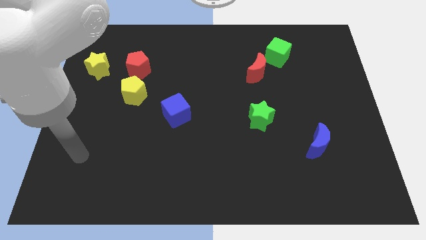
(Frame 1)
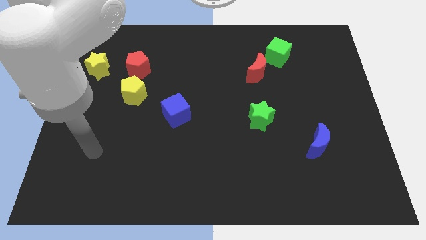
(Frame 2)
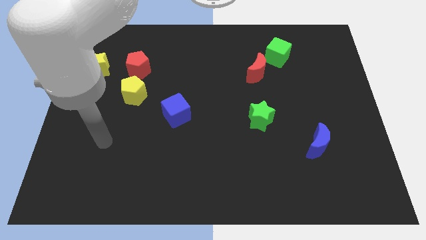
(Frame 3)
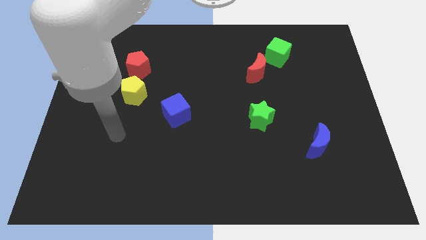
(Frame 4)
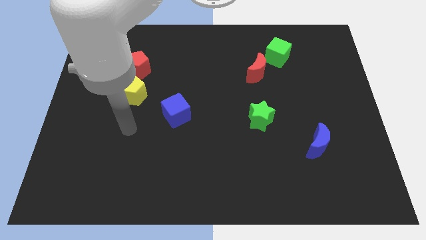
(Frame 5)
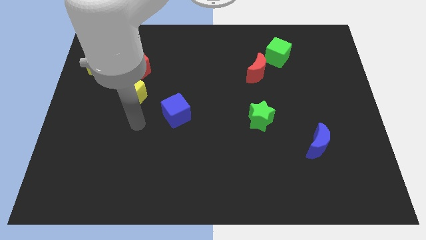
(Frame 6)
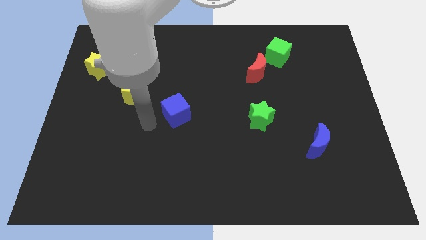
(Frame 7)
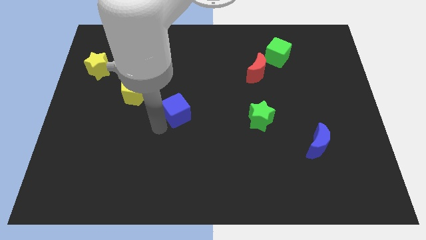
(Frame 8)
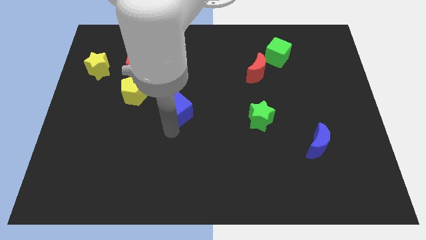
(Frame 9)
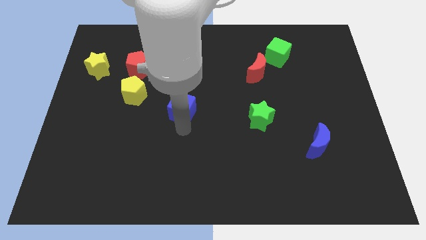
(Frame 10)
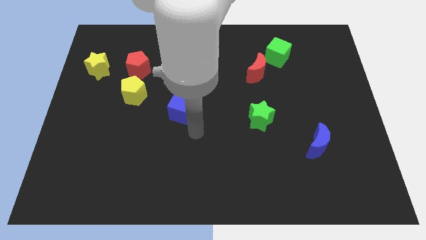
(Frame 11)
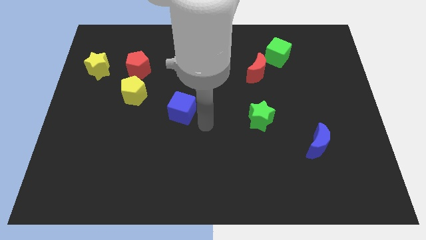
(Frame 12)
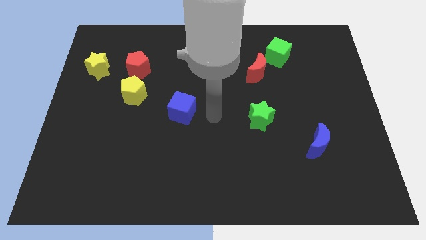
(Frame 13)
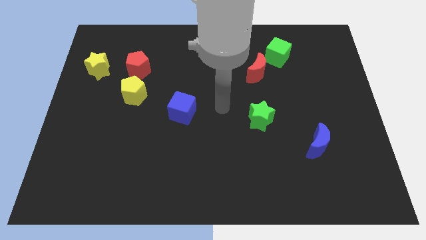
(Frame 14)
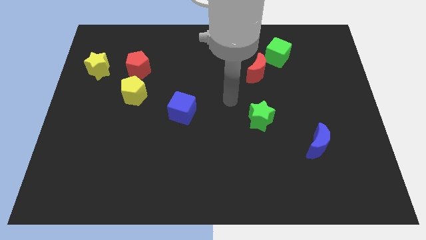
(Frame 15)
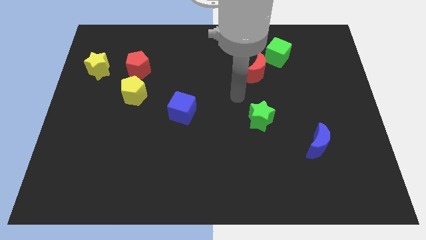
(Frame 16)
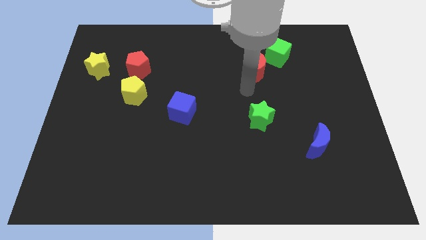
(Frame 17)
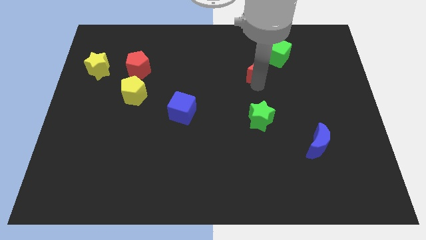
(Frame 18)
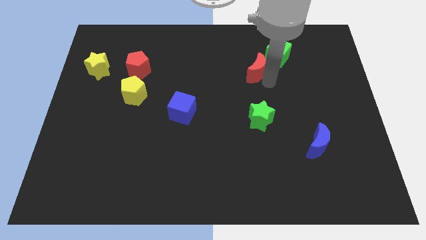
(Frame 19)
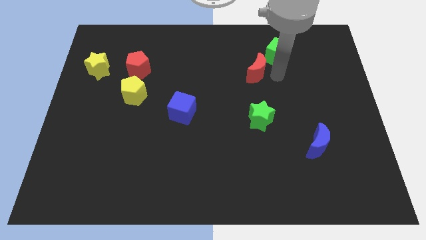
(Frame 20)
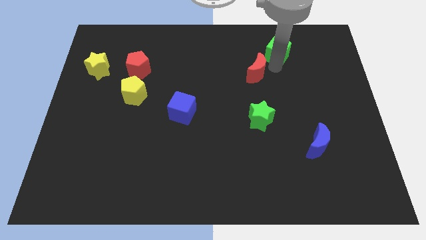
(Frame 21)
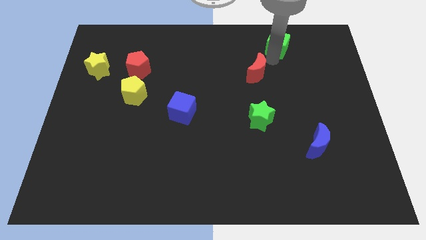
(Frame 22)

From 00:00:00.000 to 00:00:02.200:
pull the red moon apart from the green cube

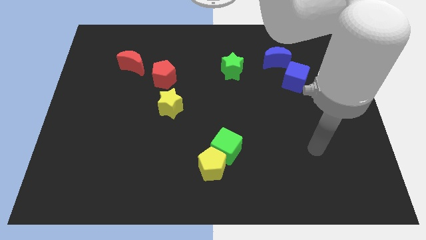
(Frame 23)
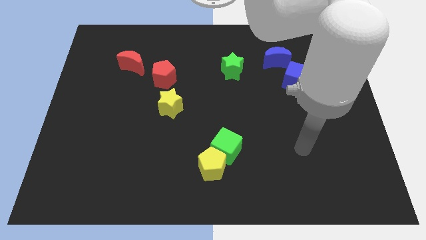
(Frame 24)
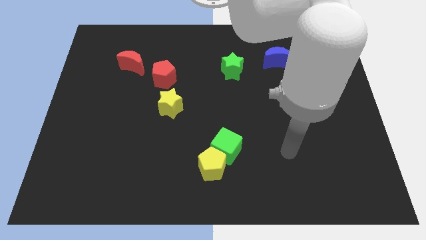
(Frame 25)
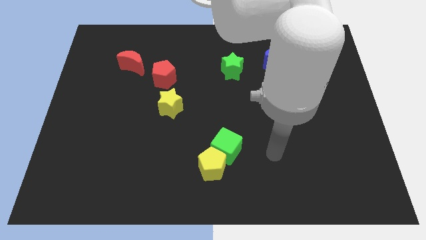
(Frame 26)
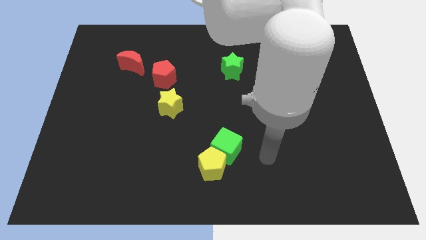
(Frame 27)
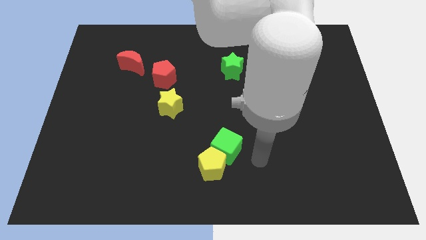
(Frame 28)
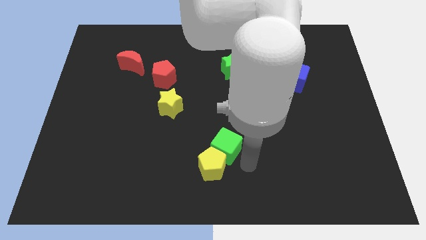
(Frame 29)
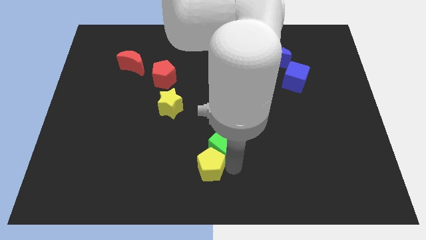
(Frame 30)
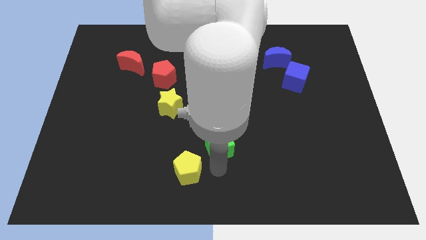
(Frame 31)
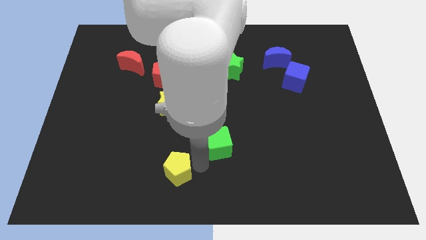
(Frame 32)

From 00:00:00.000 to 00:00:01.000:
separate the green cube from the yellow pentagon

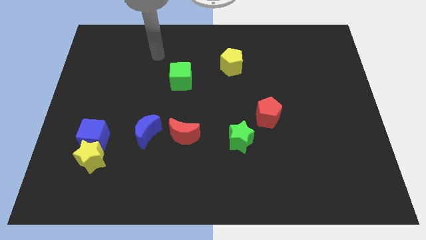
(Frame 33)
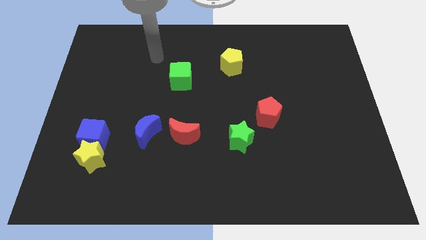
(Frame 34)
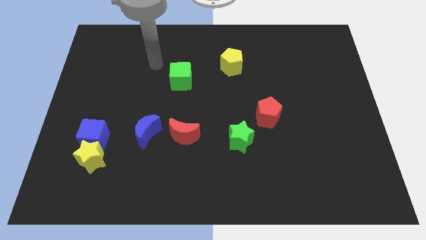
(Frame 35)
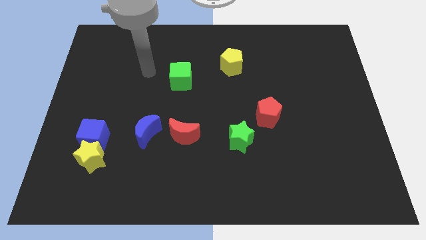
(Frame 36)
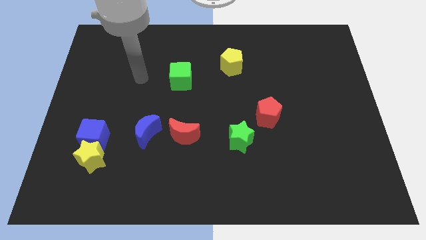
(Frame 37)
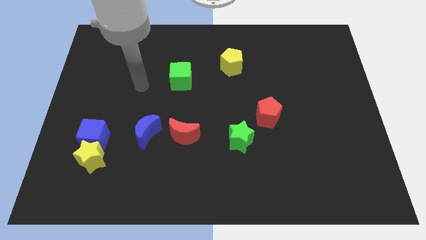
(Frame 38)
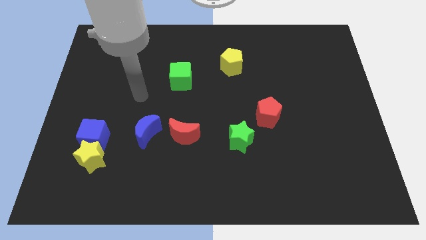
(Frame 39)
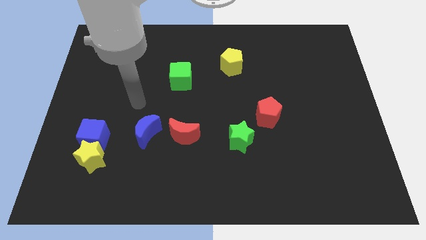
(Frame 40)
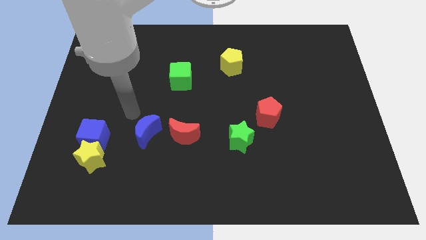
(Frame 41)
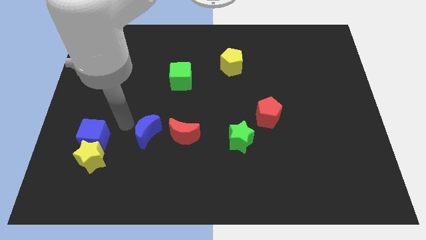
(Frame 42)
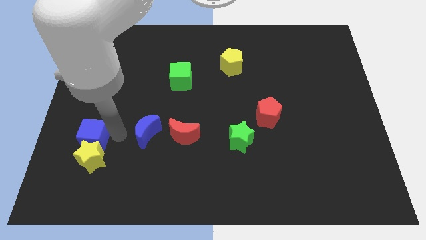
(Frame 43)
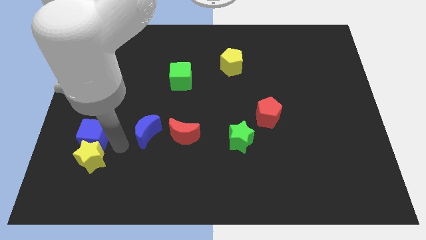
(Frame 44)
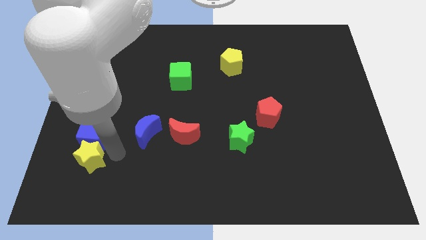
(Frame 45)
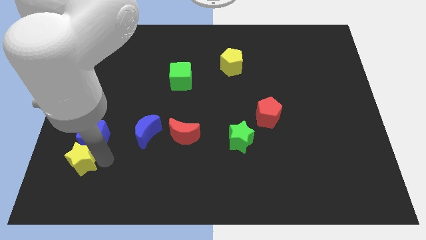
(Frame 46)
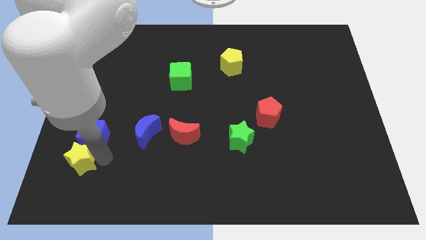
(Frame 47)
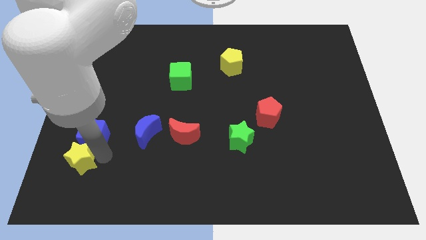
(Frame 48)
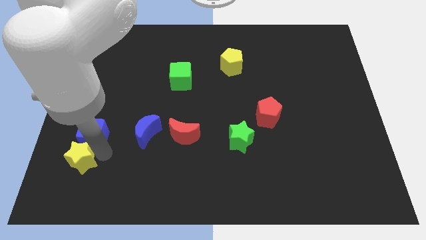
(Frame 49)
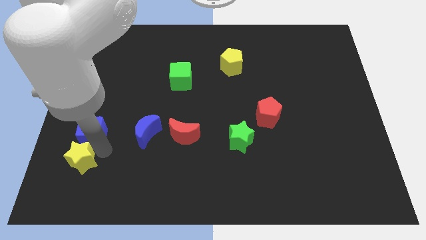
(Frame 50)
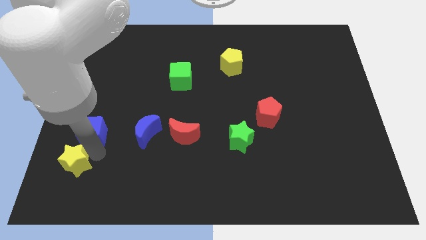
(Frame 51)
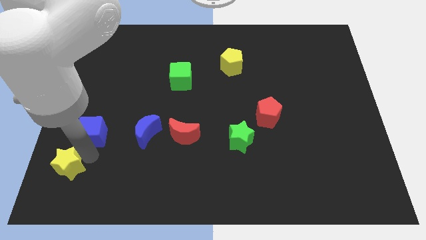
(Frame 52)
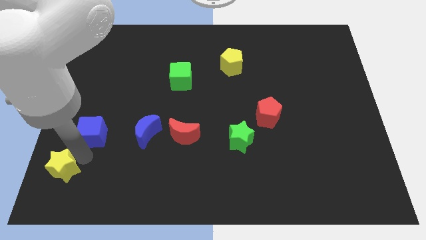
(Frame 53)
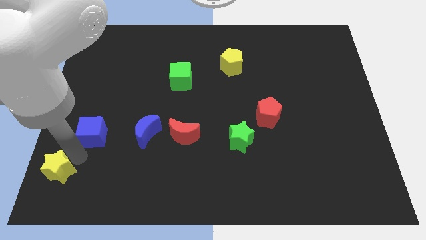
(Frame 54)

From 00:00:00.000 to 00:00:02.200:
pull the blue cube apart from the yellow star

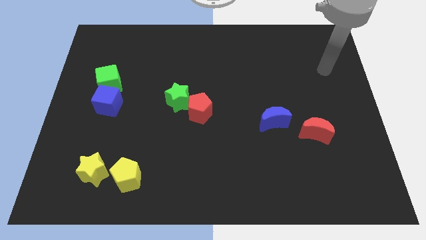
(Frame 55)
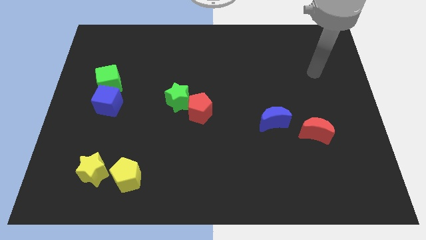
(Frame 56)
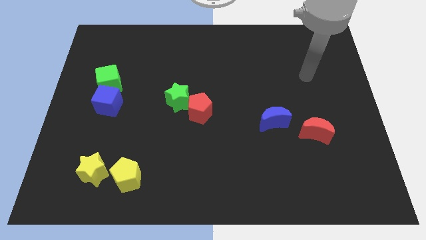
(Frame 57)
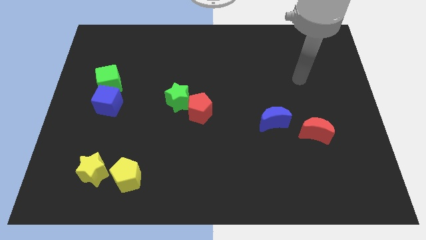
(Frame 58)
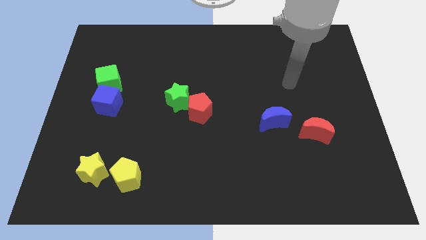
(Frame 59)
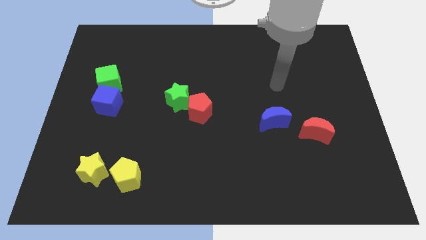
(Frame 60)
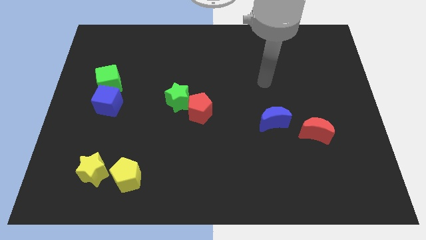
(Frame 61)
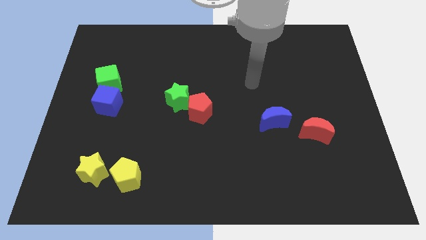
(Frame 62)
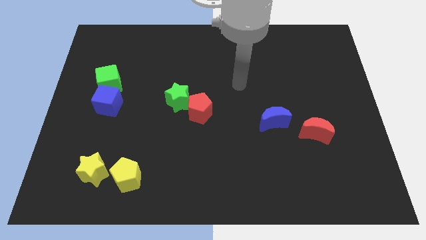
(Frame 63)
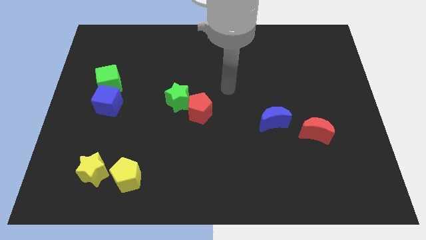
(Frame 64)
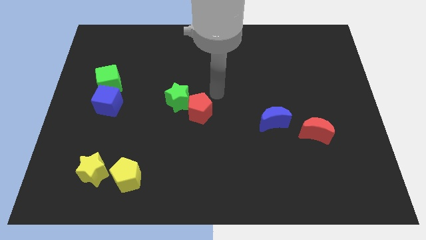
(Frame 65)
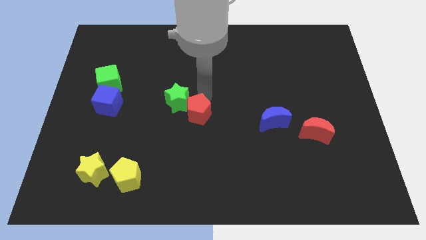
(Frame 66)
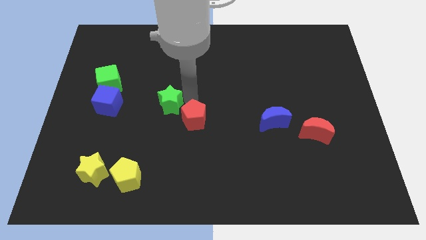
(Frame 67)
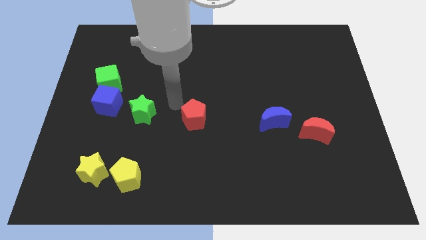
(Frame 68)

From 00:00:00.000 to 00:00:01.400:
move the red pentagon away from the green star

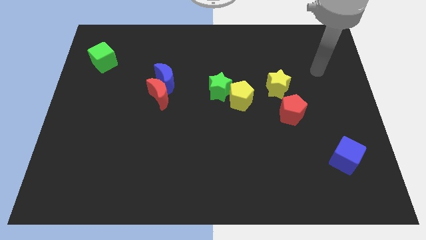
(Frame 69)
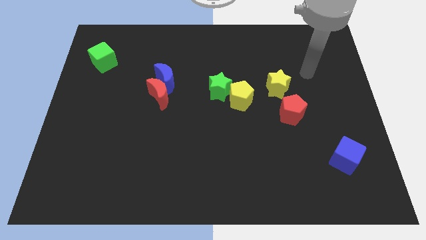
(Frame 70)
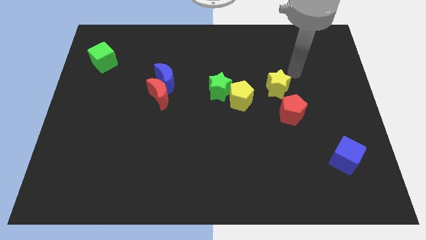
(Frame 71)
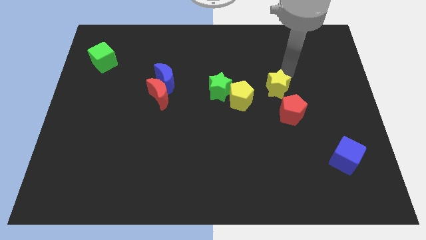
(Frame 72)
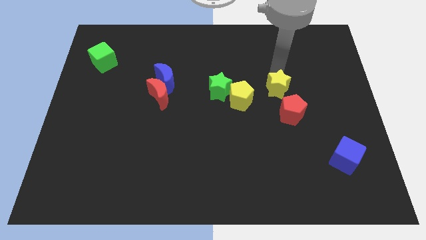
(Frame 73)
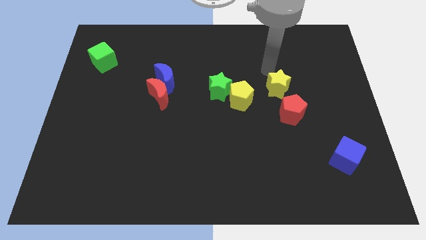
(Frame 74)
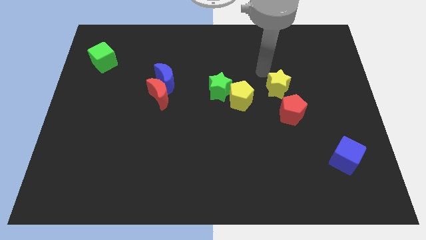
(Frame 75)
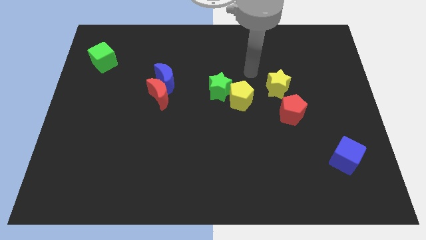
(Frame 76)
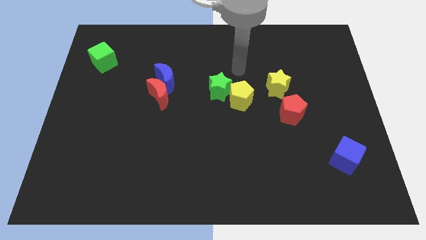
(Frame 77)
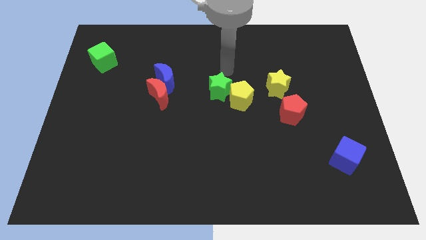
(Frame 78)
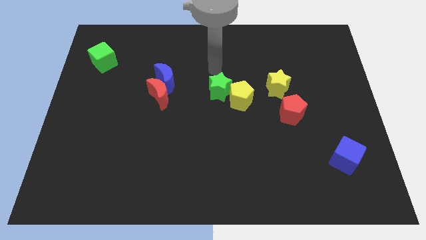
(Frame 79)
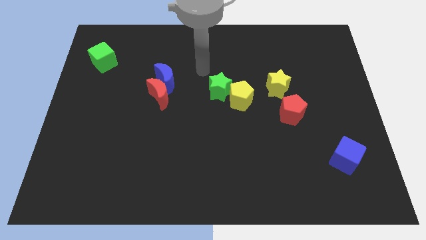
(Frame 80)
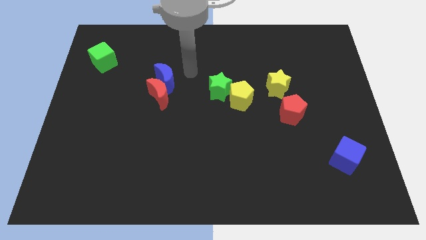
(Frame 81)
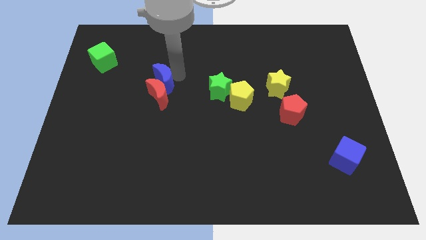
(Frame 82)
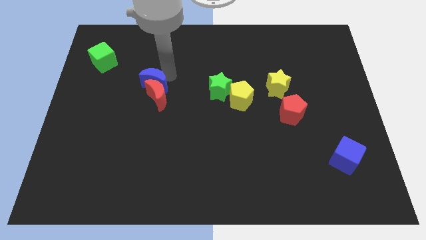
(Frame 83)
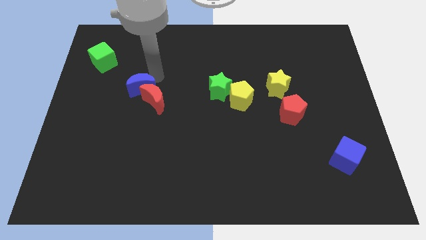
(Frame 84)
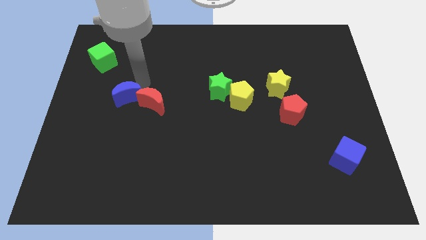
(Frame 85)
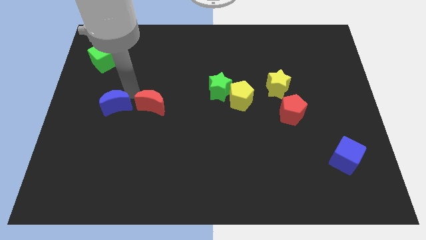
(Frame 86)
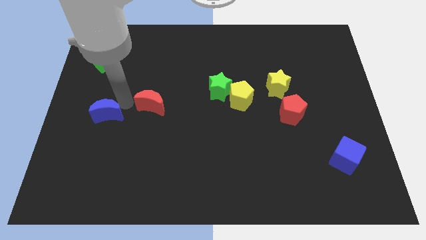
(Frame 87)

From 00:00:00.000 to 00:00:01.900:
move the red moon away from the blue moon

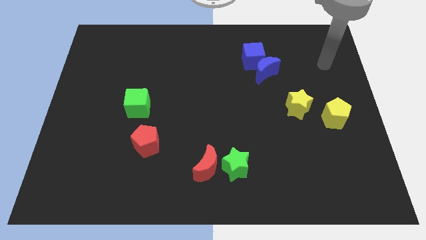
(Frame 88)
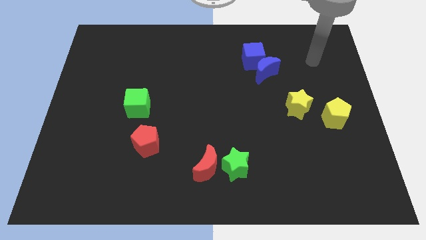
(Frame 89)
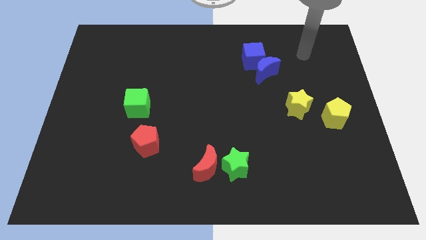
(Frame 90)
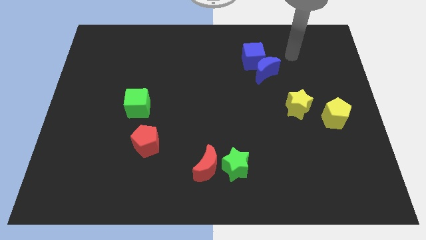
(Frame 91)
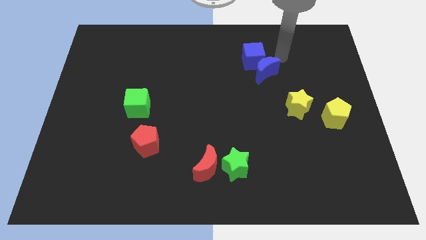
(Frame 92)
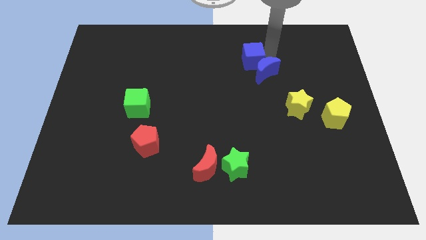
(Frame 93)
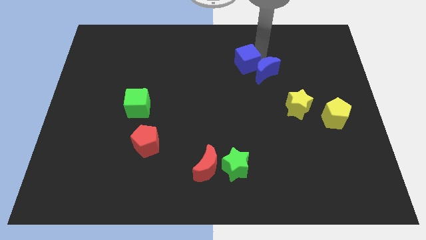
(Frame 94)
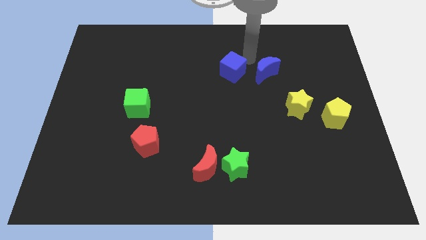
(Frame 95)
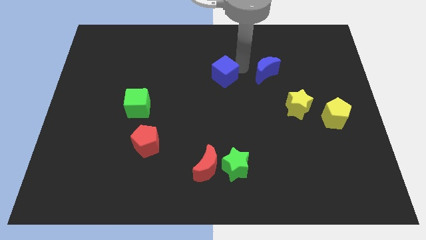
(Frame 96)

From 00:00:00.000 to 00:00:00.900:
pull the blue moon apart from the blue cube
